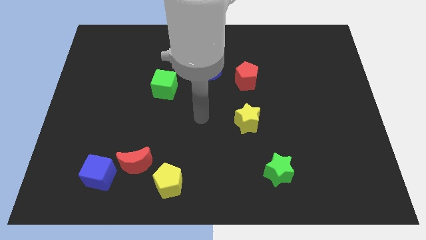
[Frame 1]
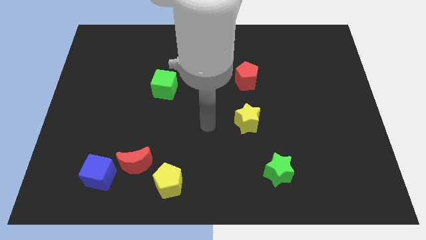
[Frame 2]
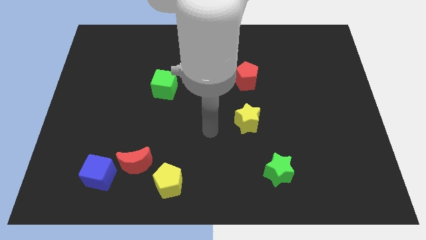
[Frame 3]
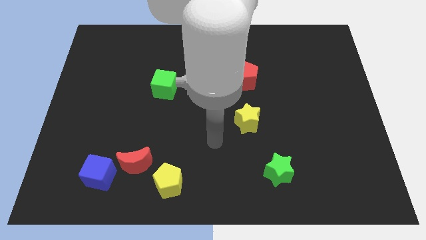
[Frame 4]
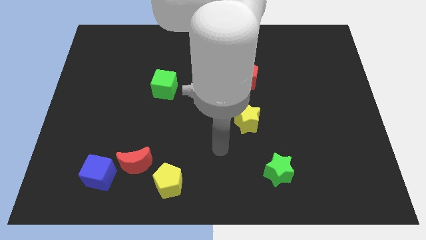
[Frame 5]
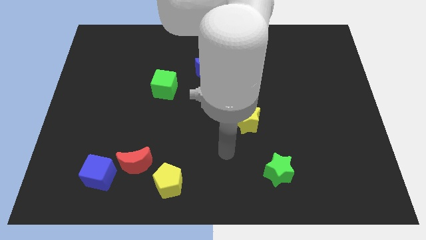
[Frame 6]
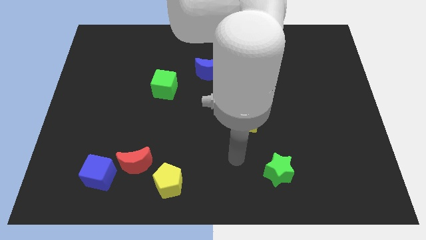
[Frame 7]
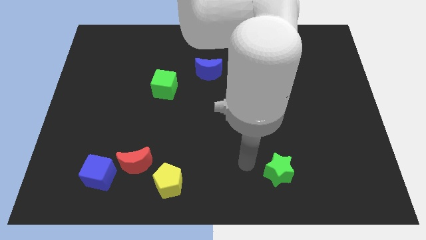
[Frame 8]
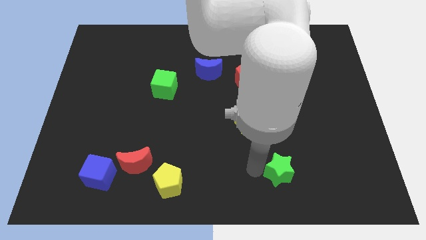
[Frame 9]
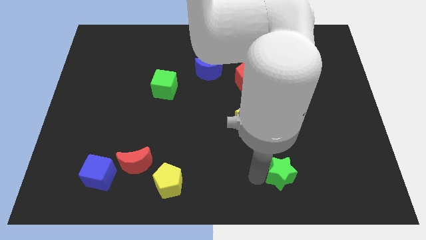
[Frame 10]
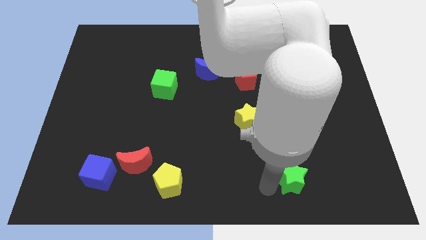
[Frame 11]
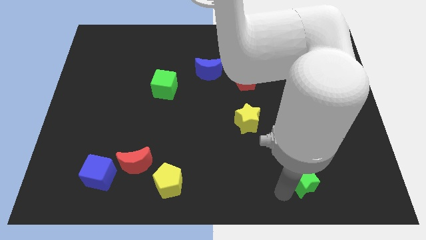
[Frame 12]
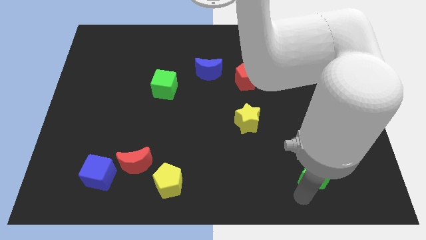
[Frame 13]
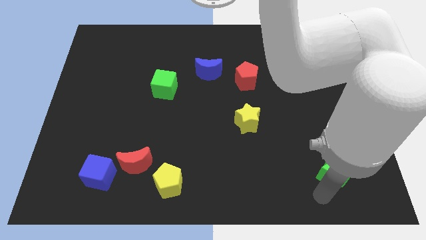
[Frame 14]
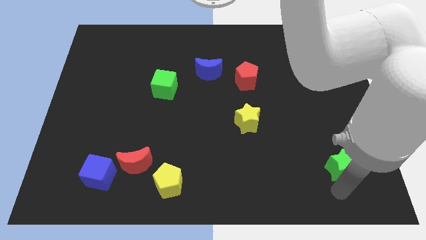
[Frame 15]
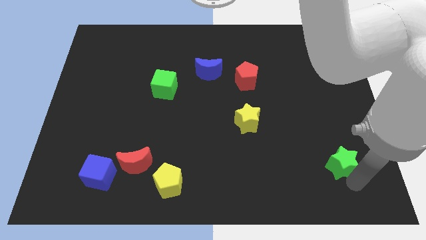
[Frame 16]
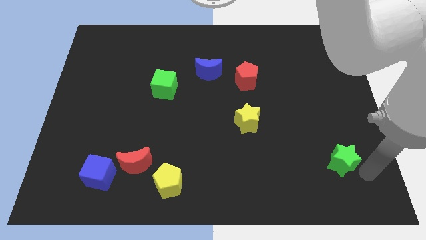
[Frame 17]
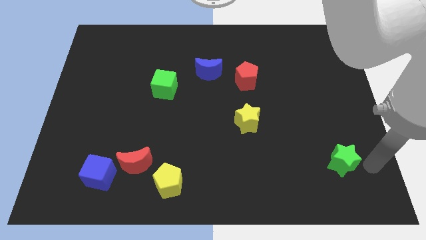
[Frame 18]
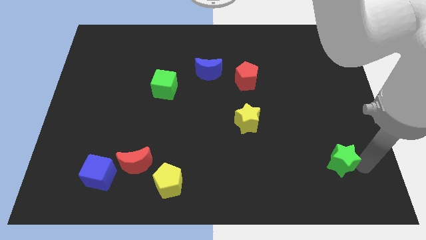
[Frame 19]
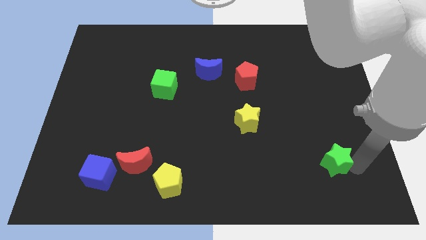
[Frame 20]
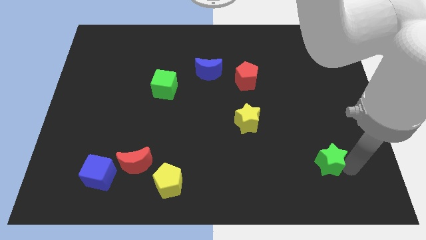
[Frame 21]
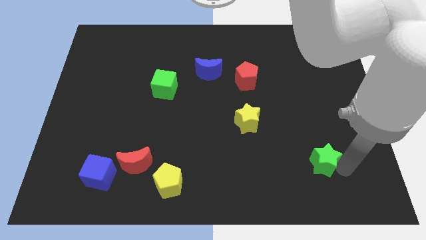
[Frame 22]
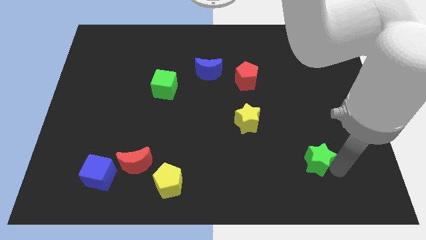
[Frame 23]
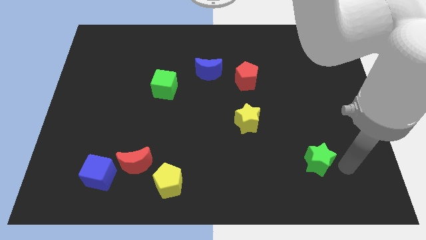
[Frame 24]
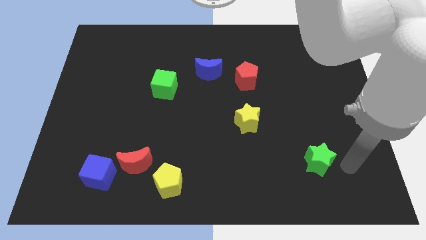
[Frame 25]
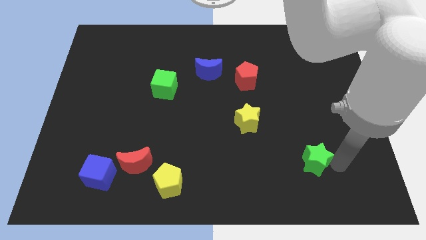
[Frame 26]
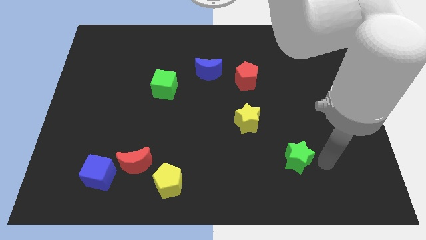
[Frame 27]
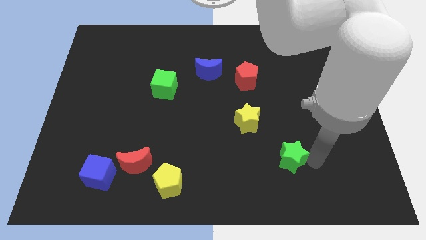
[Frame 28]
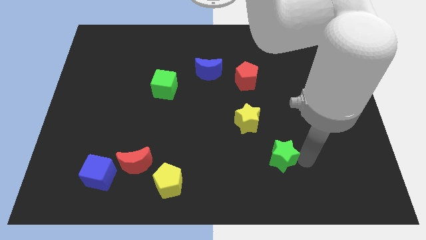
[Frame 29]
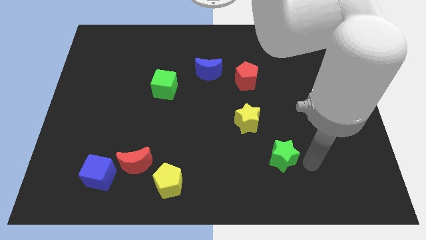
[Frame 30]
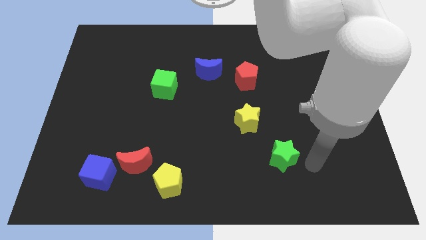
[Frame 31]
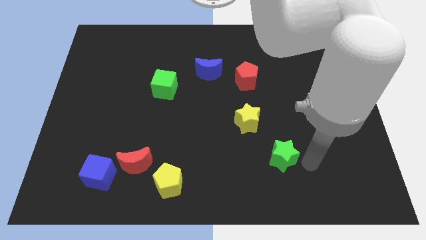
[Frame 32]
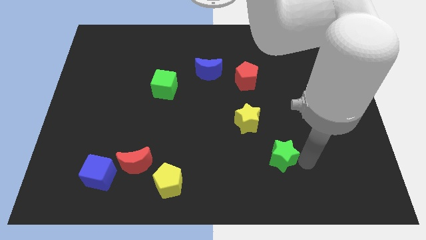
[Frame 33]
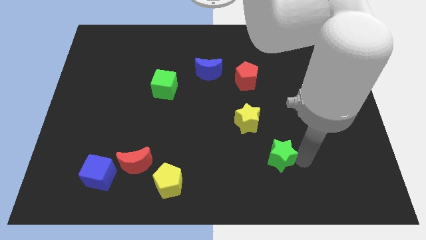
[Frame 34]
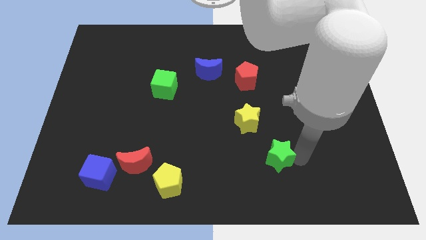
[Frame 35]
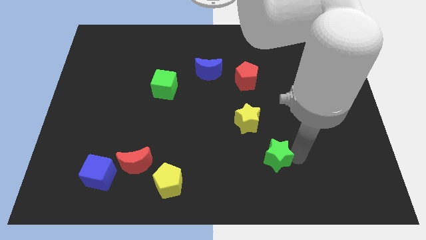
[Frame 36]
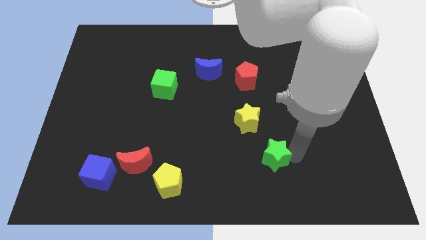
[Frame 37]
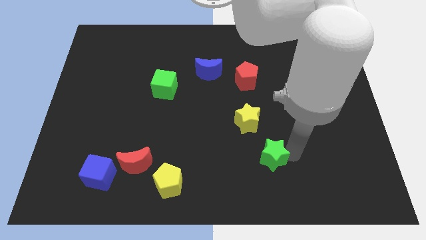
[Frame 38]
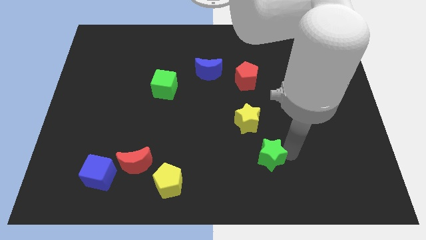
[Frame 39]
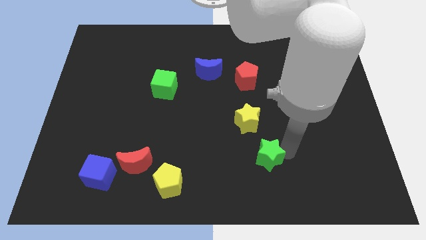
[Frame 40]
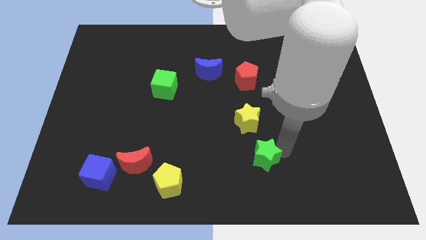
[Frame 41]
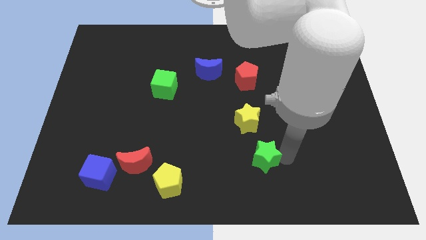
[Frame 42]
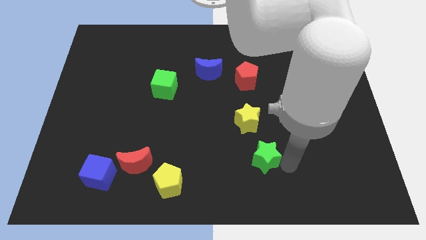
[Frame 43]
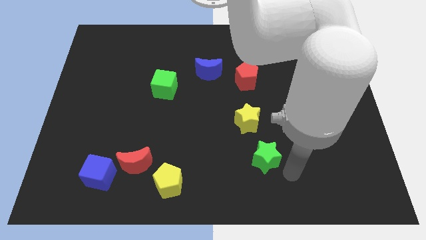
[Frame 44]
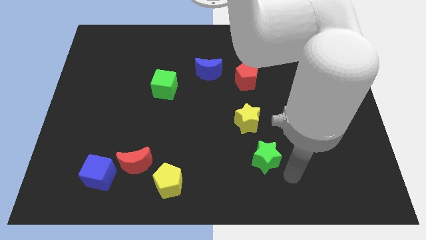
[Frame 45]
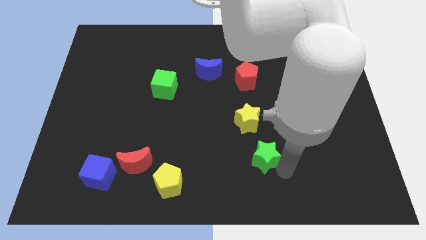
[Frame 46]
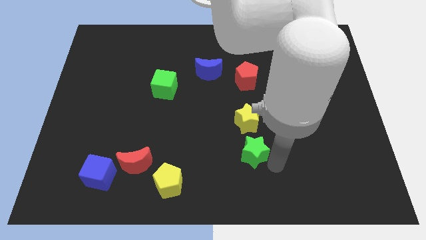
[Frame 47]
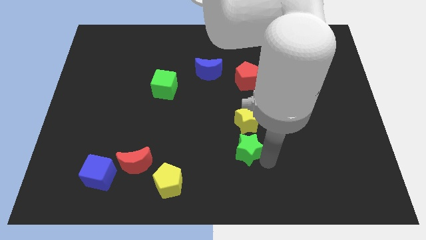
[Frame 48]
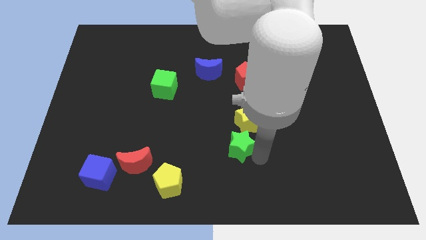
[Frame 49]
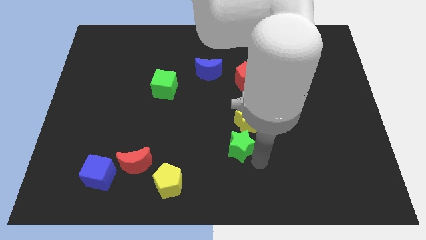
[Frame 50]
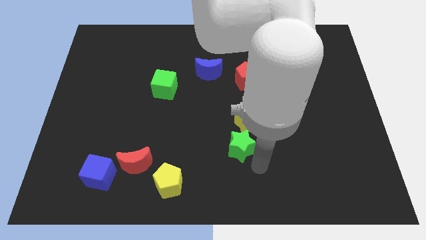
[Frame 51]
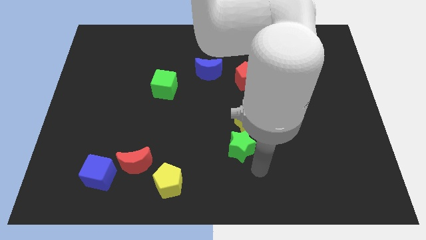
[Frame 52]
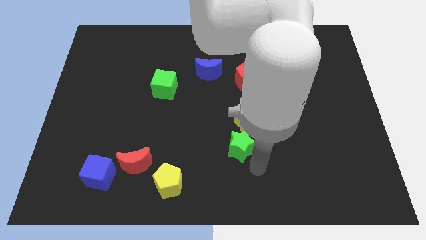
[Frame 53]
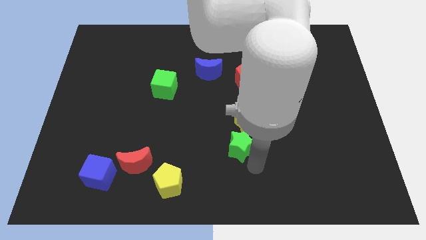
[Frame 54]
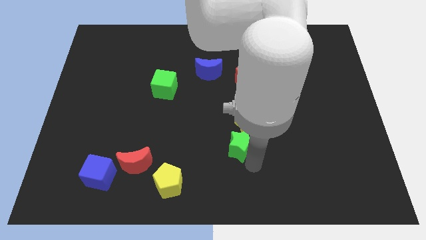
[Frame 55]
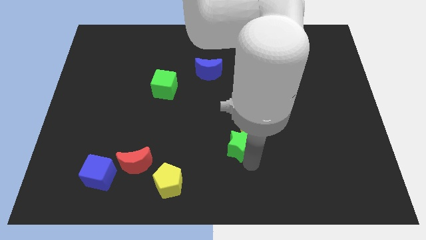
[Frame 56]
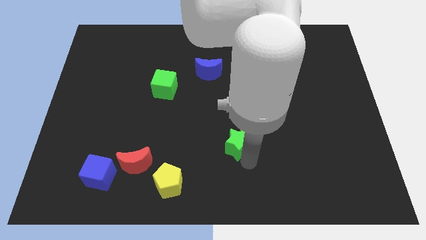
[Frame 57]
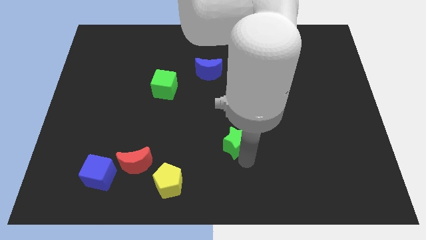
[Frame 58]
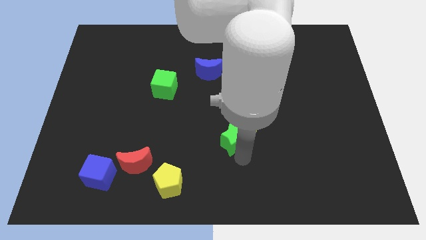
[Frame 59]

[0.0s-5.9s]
slide the green star to the center of the board
